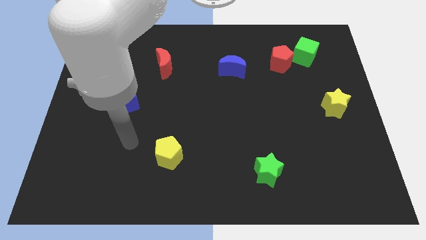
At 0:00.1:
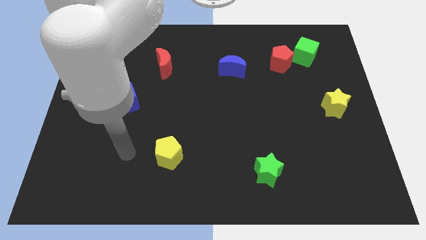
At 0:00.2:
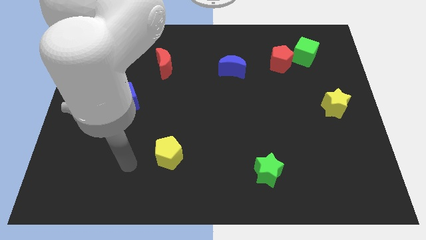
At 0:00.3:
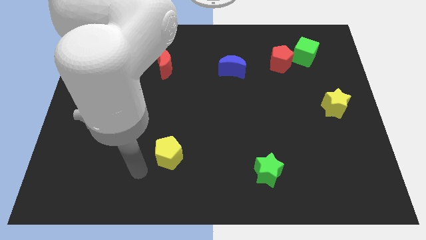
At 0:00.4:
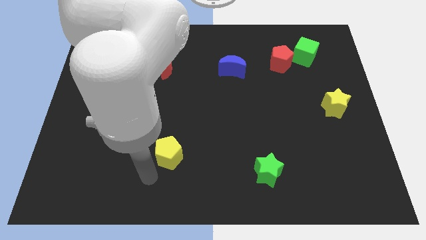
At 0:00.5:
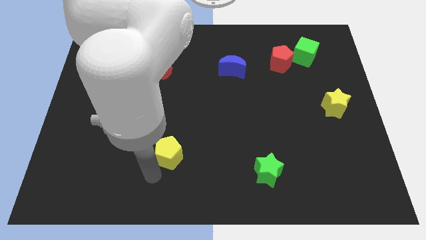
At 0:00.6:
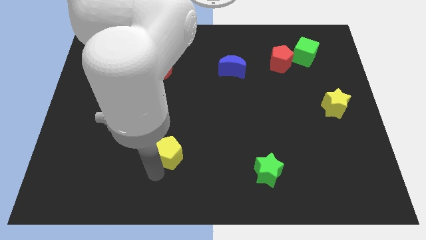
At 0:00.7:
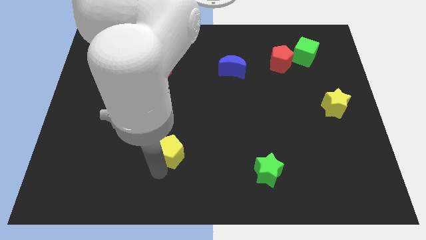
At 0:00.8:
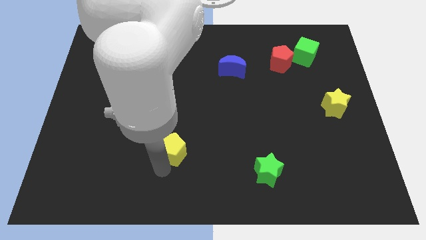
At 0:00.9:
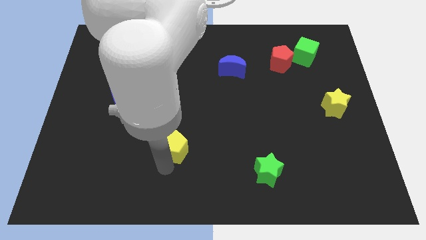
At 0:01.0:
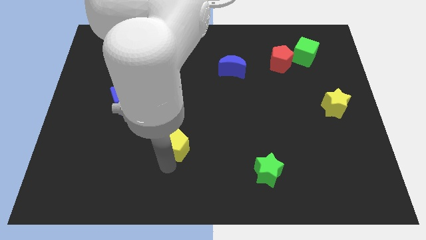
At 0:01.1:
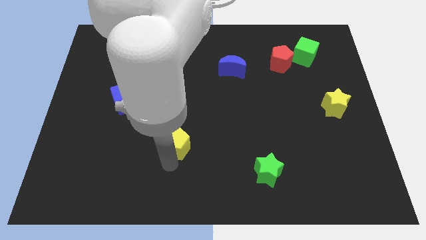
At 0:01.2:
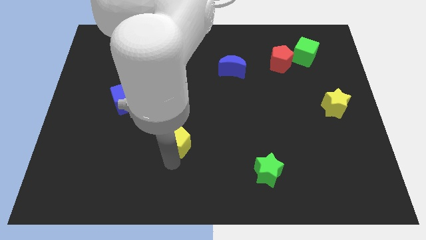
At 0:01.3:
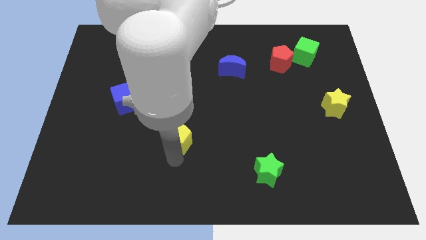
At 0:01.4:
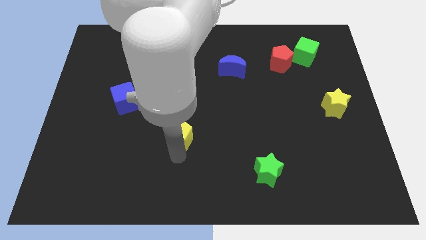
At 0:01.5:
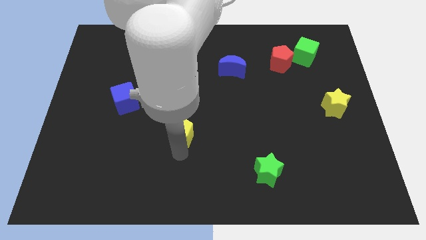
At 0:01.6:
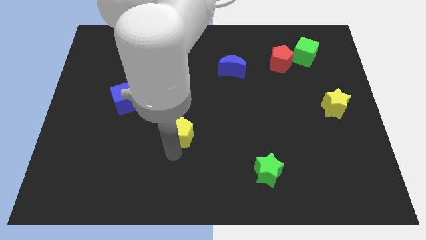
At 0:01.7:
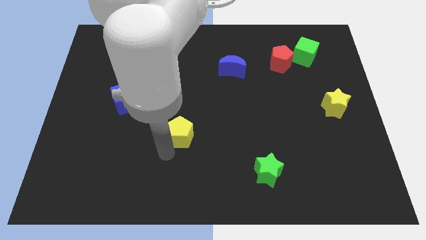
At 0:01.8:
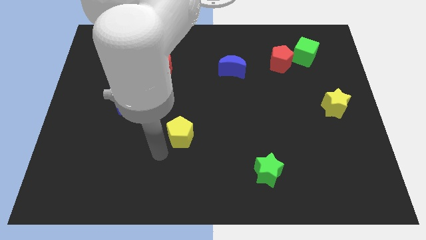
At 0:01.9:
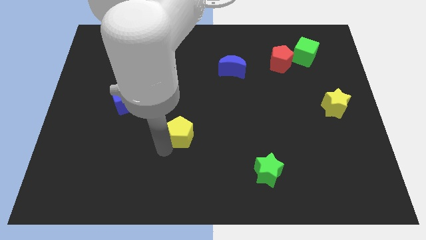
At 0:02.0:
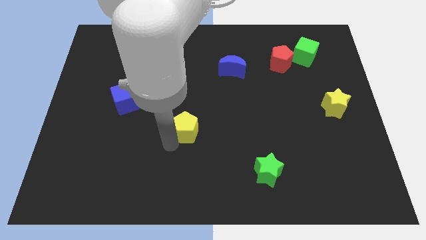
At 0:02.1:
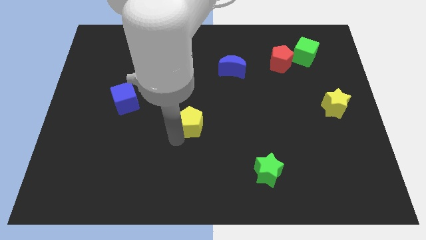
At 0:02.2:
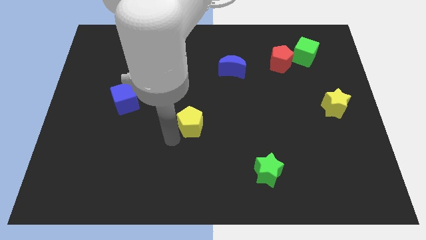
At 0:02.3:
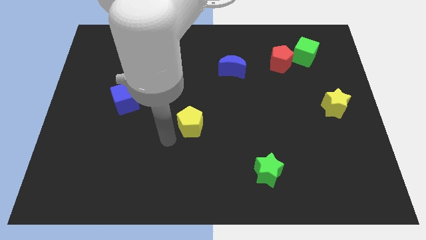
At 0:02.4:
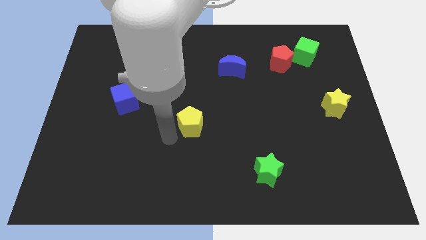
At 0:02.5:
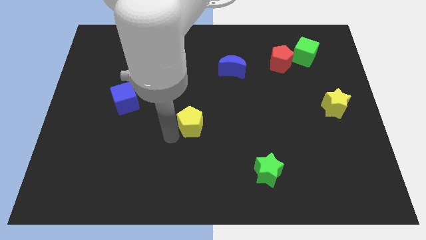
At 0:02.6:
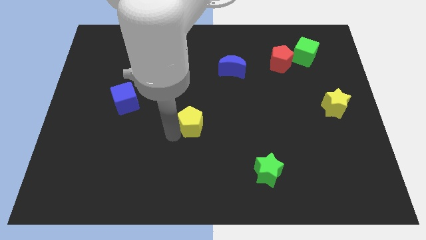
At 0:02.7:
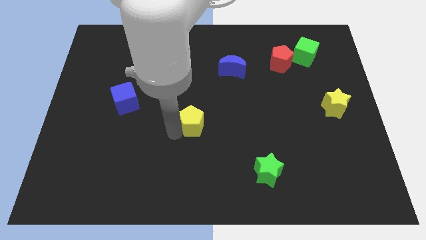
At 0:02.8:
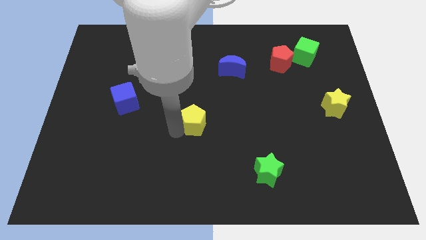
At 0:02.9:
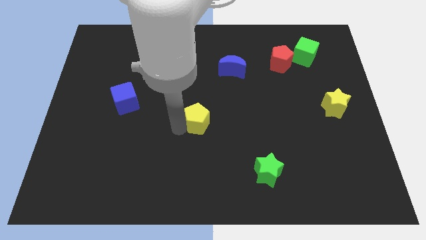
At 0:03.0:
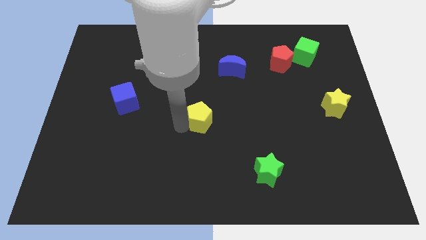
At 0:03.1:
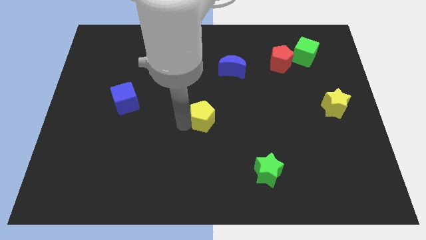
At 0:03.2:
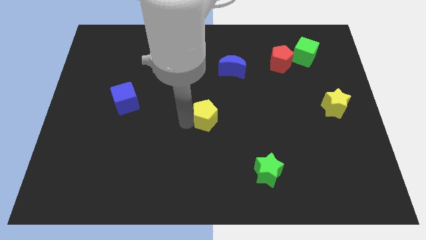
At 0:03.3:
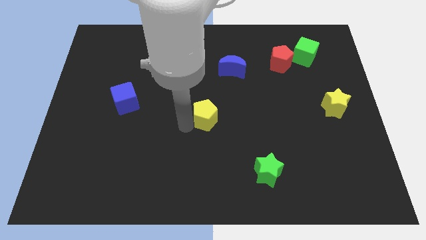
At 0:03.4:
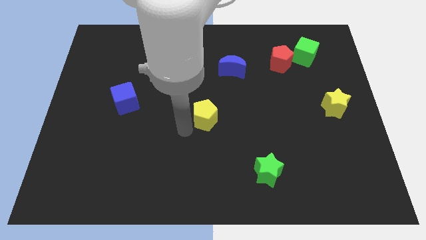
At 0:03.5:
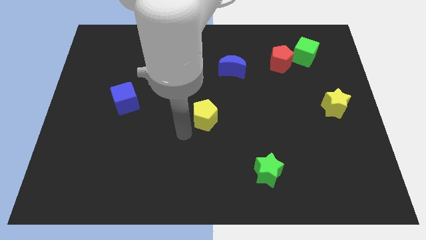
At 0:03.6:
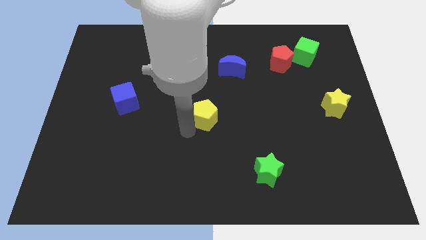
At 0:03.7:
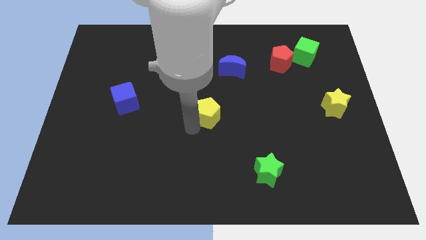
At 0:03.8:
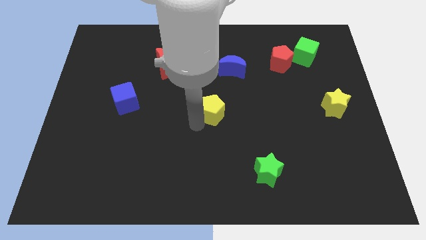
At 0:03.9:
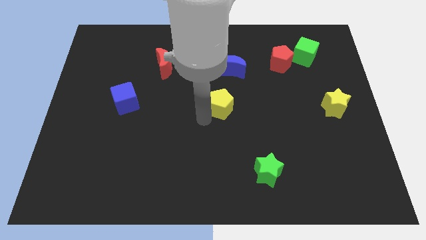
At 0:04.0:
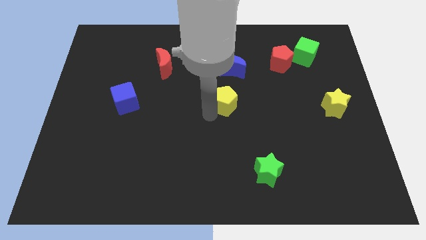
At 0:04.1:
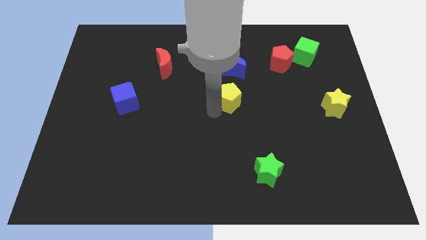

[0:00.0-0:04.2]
slide the yellow pentagon up and right

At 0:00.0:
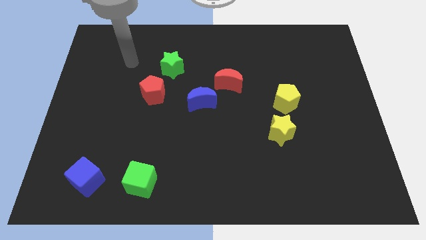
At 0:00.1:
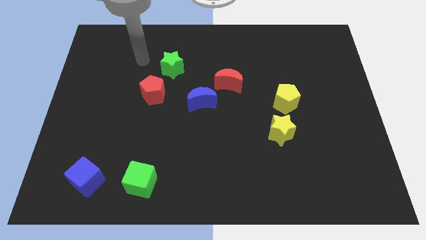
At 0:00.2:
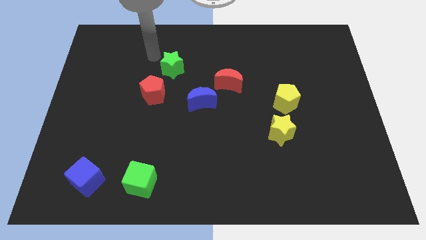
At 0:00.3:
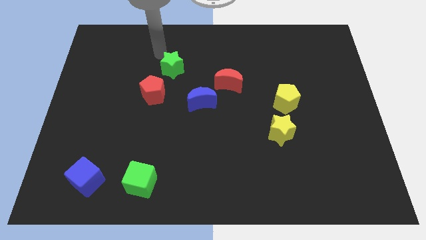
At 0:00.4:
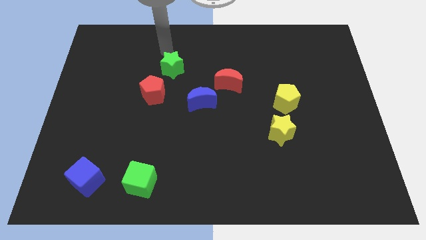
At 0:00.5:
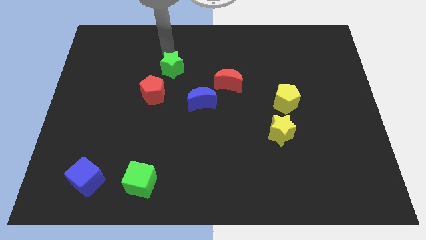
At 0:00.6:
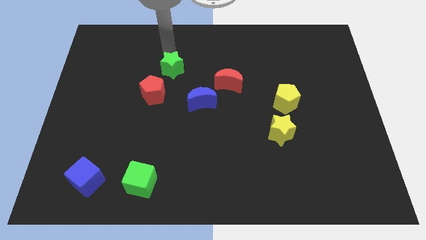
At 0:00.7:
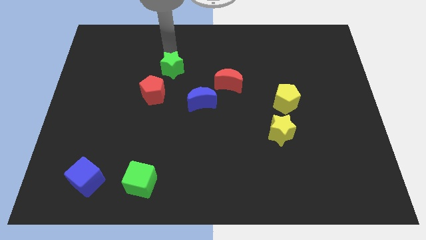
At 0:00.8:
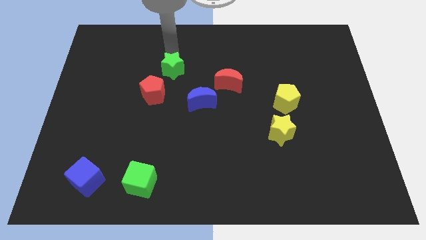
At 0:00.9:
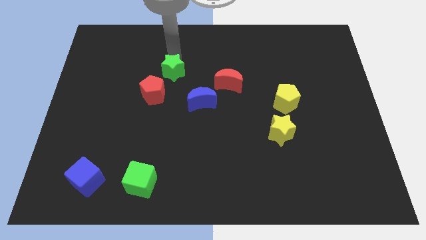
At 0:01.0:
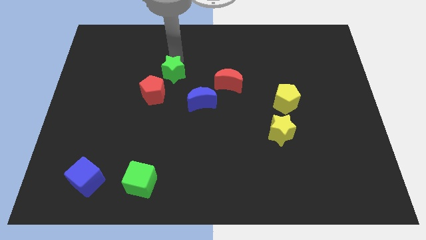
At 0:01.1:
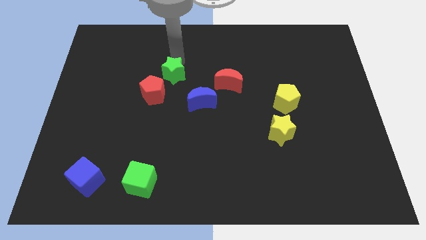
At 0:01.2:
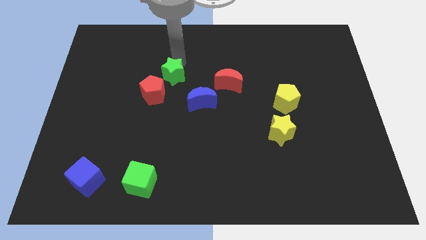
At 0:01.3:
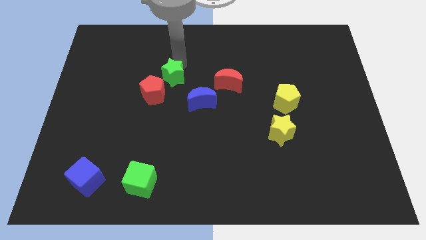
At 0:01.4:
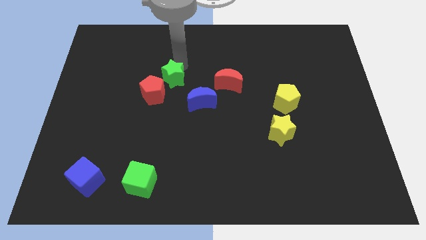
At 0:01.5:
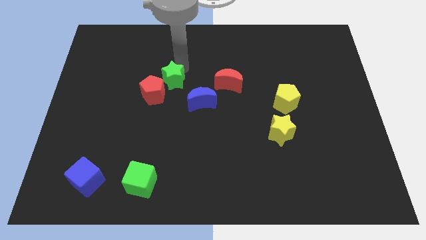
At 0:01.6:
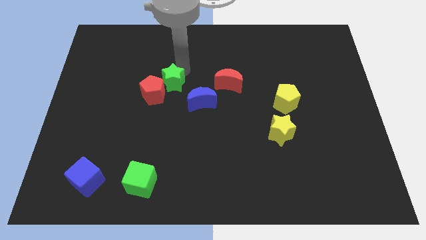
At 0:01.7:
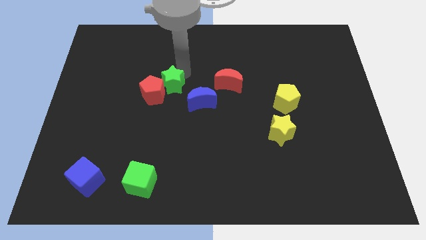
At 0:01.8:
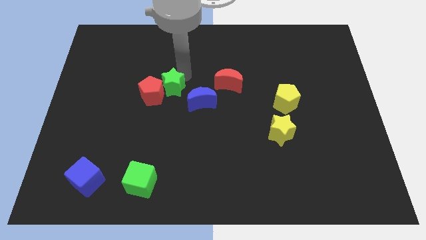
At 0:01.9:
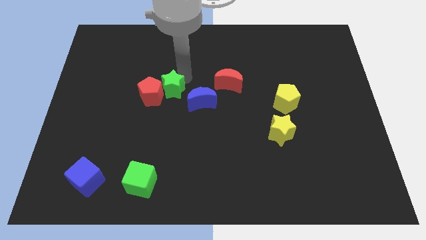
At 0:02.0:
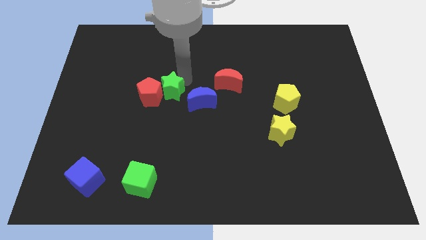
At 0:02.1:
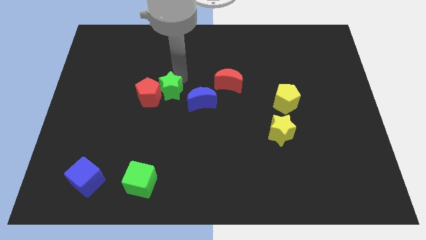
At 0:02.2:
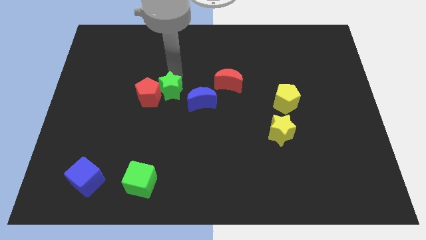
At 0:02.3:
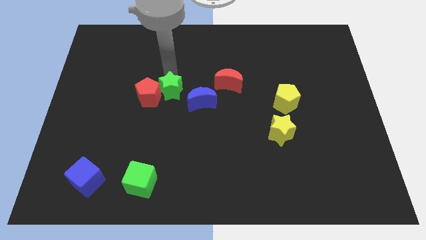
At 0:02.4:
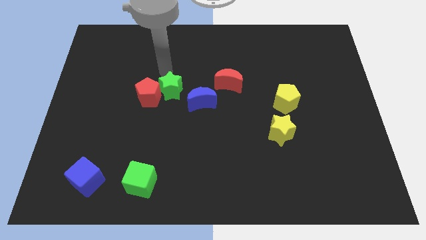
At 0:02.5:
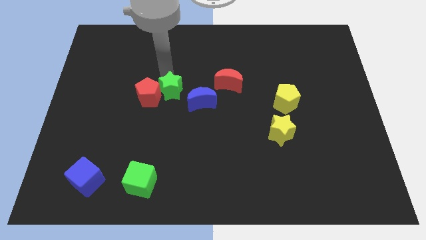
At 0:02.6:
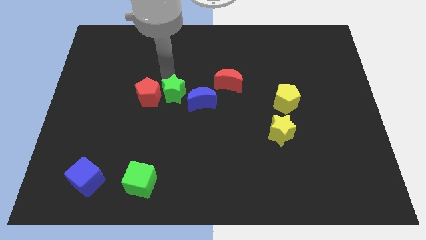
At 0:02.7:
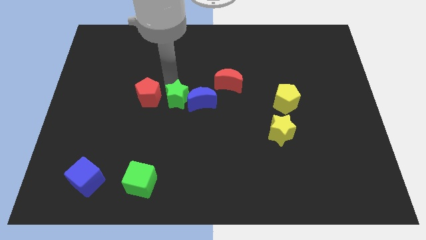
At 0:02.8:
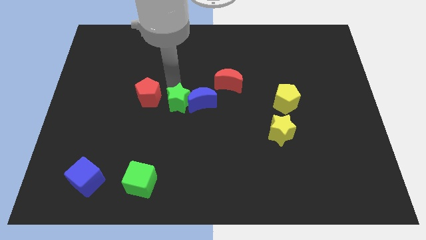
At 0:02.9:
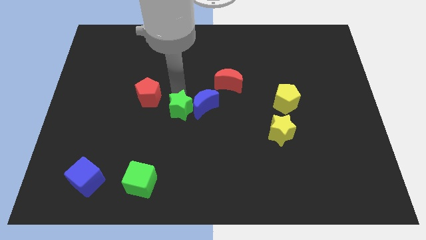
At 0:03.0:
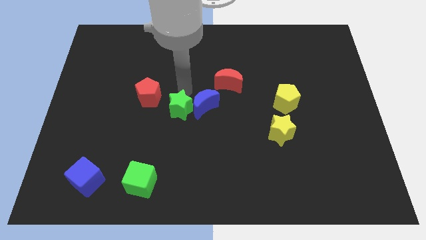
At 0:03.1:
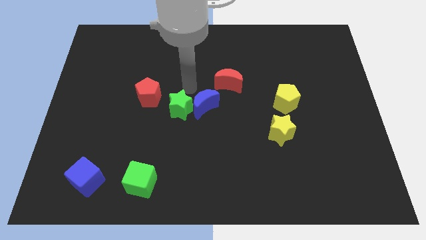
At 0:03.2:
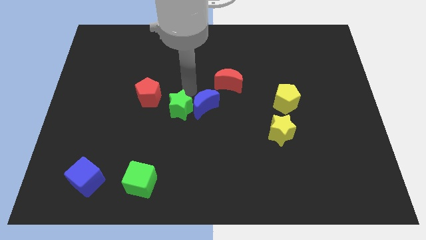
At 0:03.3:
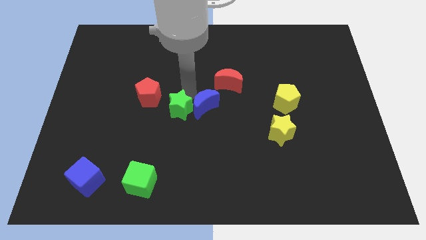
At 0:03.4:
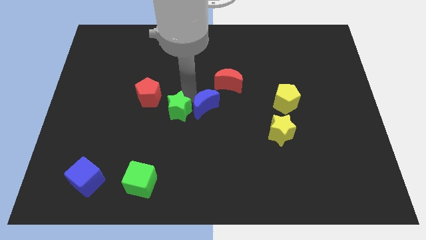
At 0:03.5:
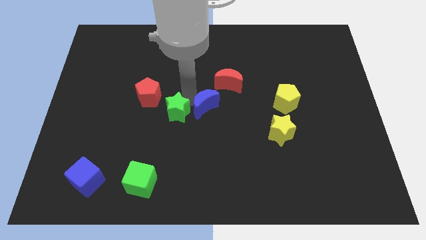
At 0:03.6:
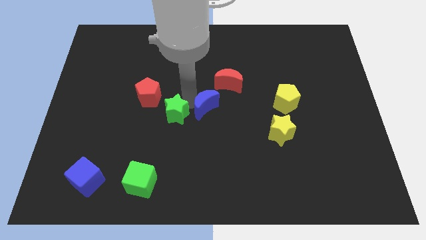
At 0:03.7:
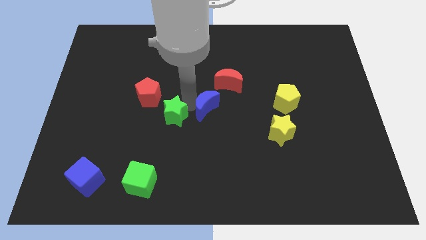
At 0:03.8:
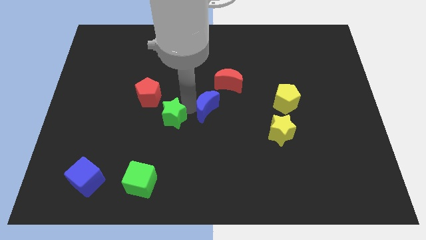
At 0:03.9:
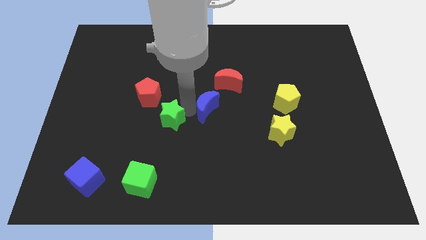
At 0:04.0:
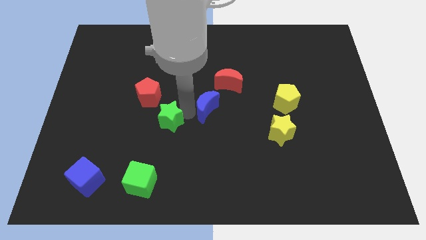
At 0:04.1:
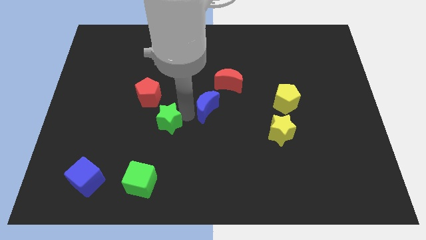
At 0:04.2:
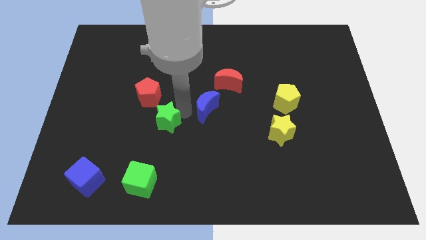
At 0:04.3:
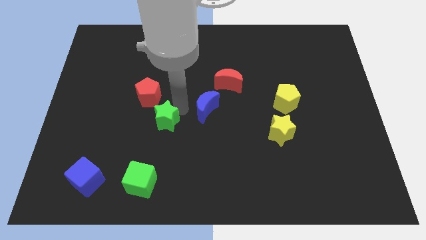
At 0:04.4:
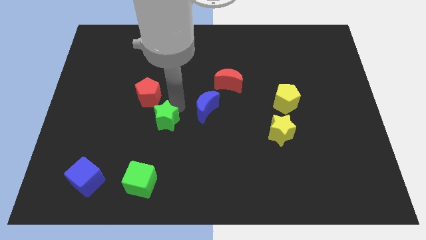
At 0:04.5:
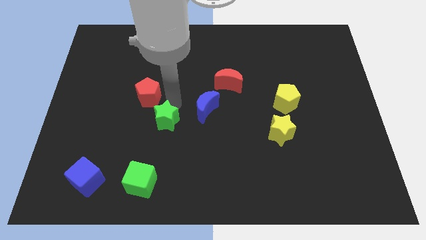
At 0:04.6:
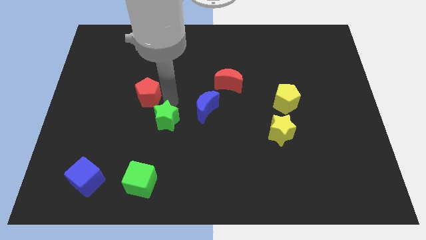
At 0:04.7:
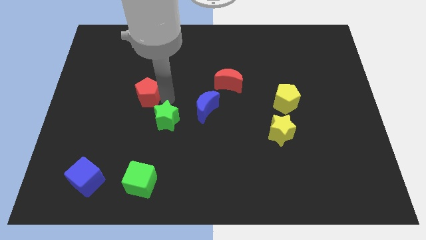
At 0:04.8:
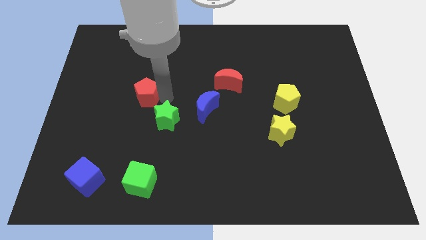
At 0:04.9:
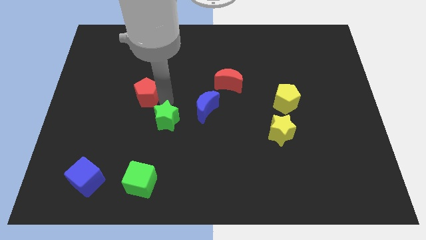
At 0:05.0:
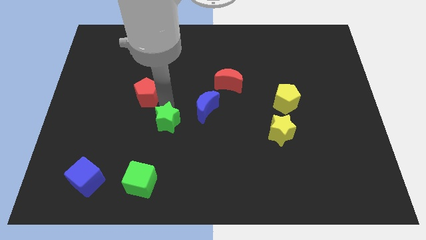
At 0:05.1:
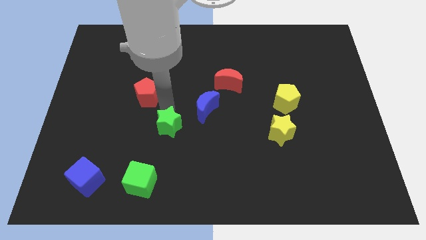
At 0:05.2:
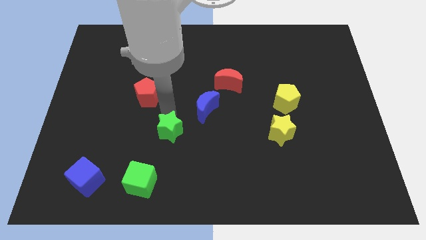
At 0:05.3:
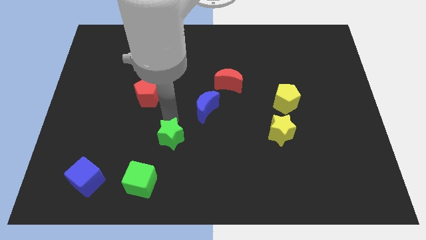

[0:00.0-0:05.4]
push the green star down
